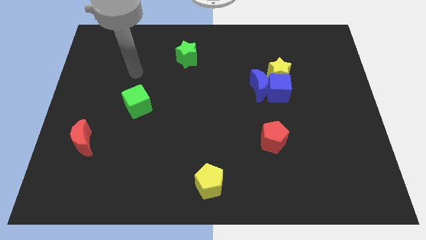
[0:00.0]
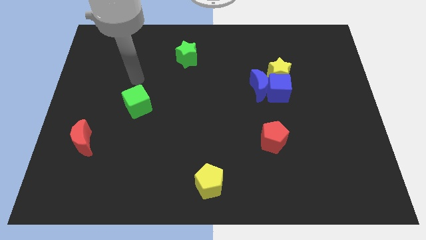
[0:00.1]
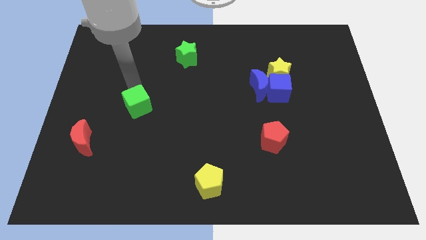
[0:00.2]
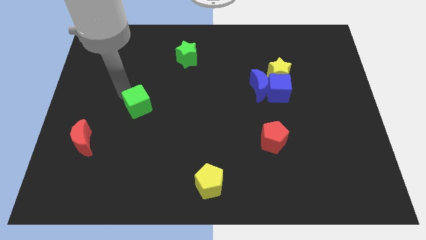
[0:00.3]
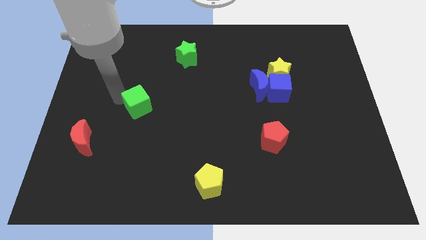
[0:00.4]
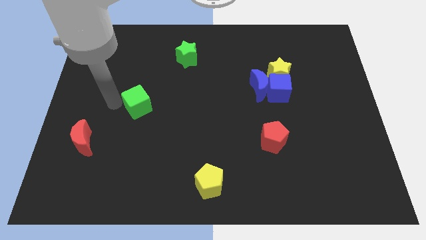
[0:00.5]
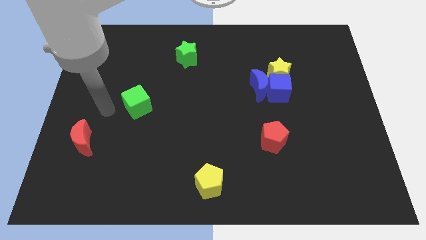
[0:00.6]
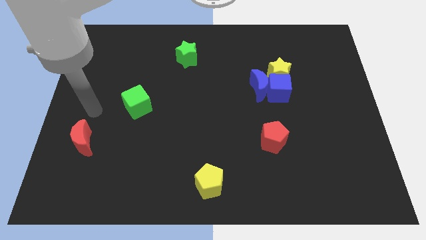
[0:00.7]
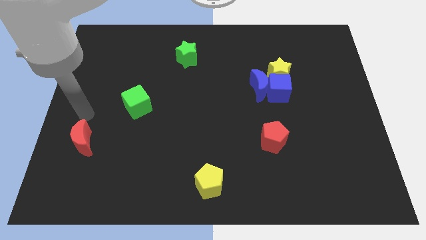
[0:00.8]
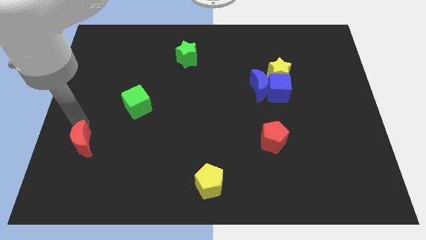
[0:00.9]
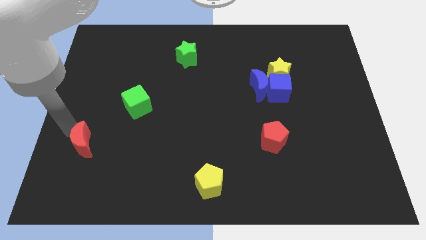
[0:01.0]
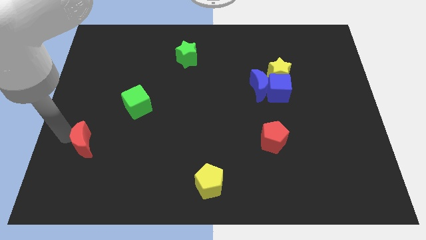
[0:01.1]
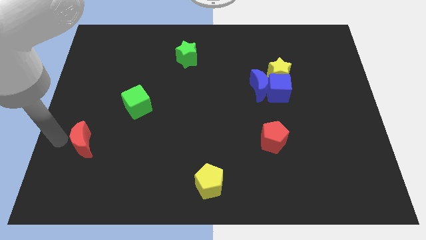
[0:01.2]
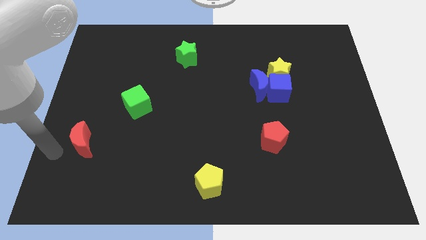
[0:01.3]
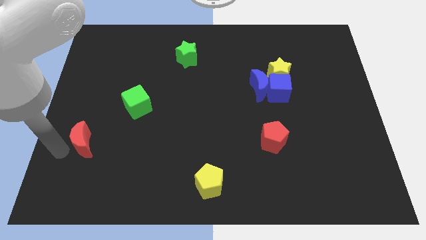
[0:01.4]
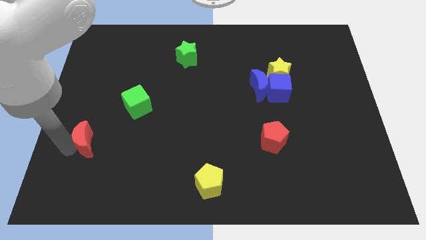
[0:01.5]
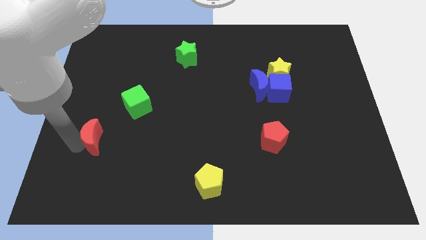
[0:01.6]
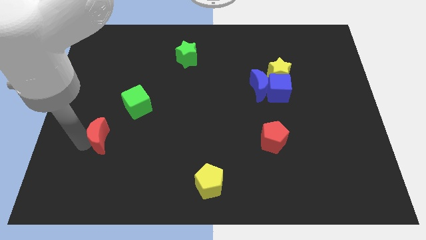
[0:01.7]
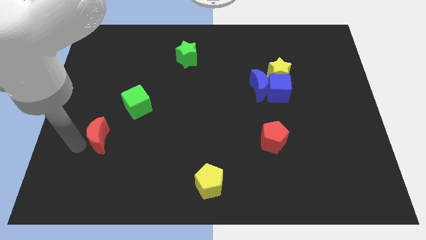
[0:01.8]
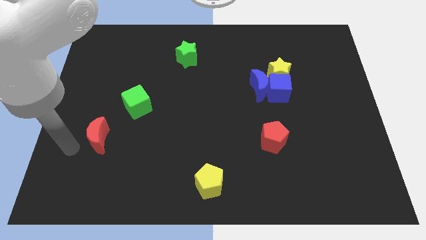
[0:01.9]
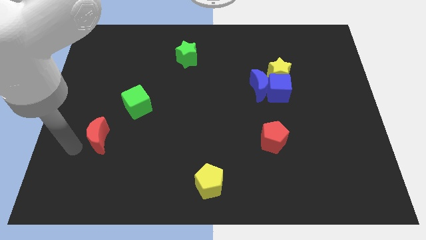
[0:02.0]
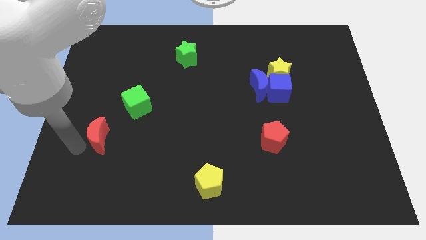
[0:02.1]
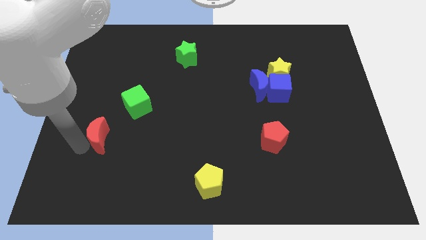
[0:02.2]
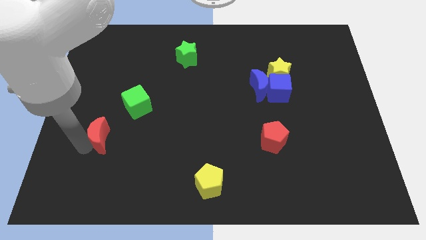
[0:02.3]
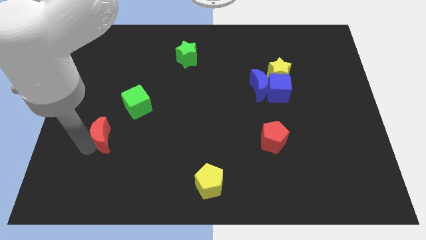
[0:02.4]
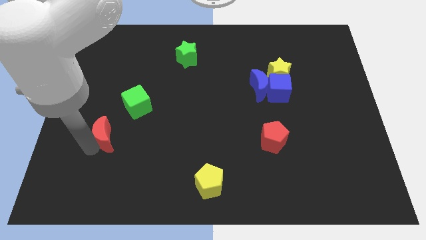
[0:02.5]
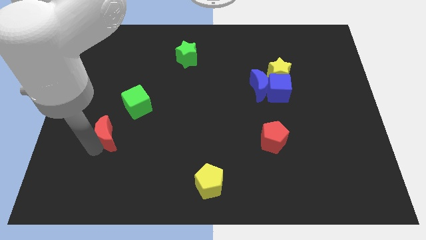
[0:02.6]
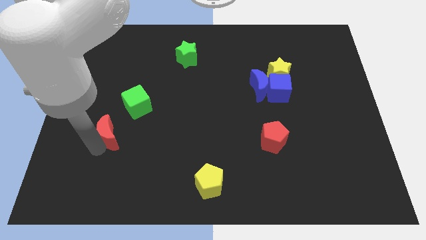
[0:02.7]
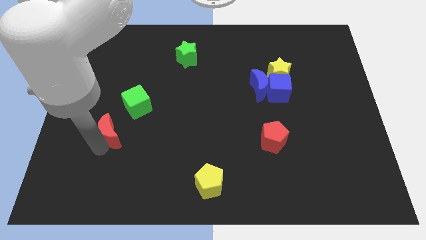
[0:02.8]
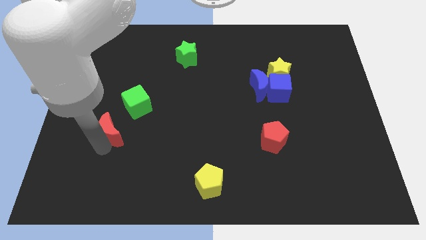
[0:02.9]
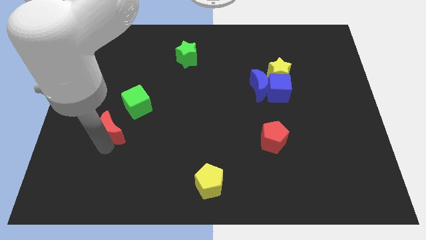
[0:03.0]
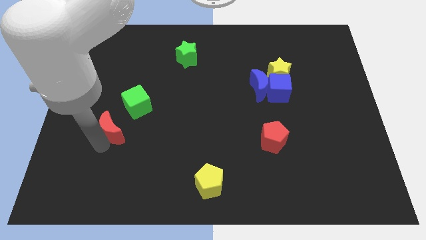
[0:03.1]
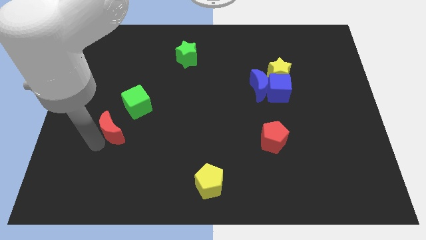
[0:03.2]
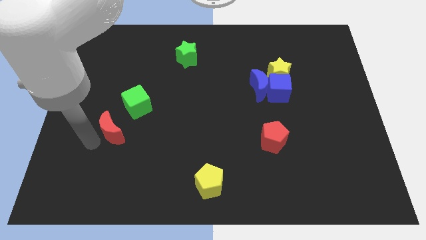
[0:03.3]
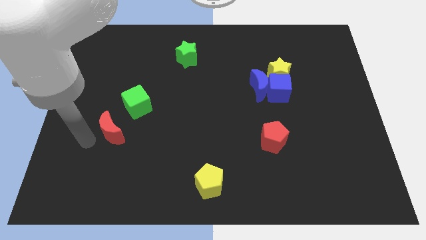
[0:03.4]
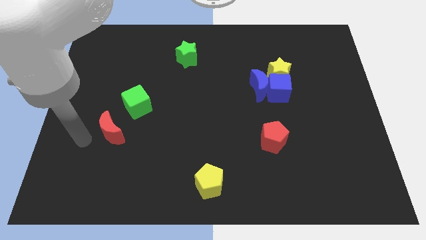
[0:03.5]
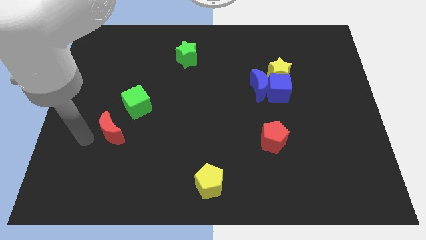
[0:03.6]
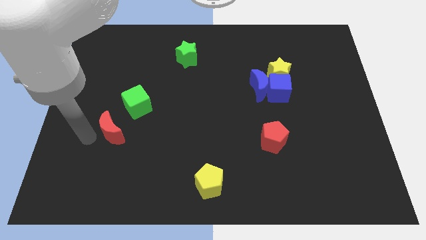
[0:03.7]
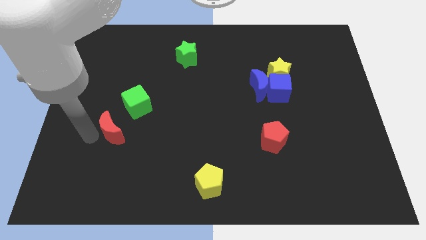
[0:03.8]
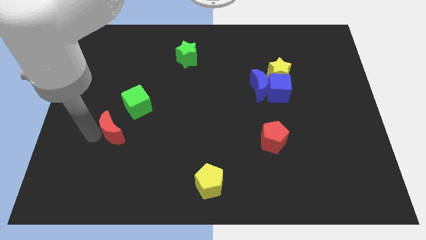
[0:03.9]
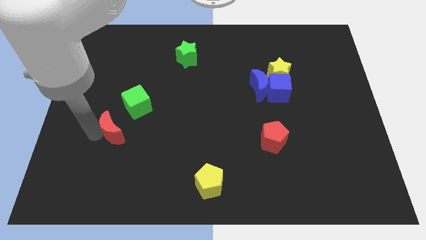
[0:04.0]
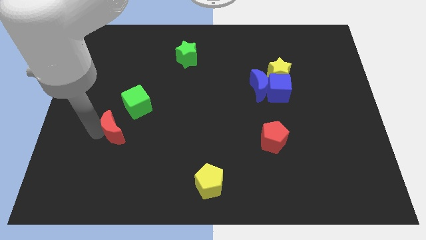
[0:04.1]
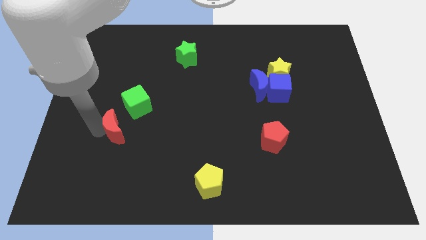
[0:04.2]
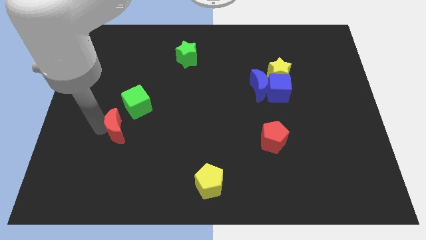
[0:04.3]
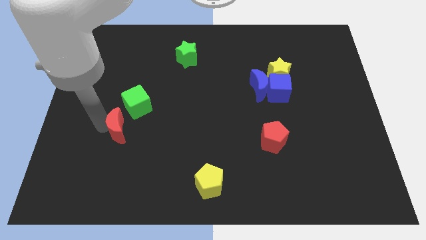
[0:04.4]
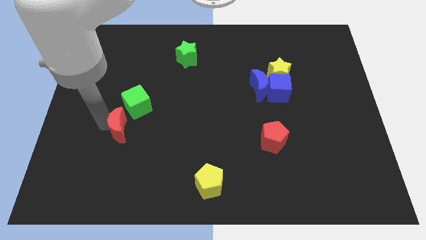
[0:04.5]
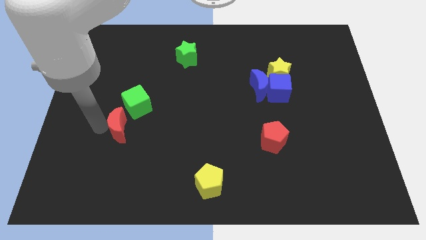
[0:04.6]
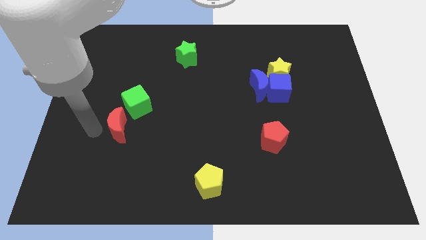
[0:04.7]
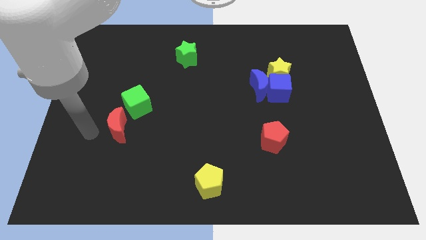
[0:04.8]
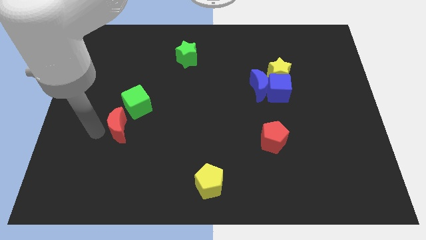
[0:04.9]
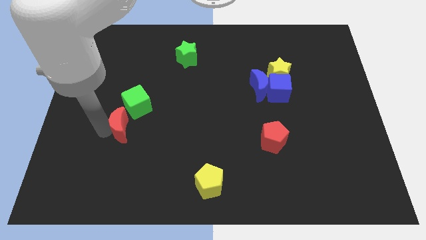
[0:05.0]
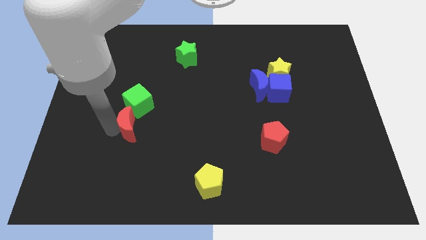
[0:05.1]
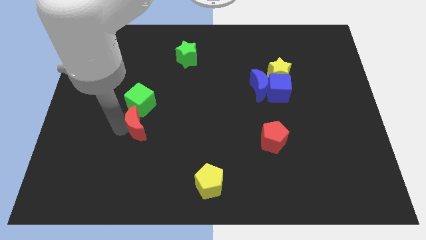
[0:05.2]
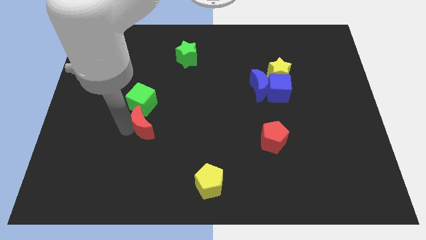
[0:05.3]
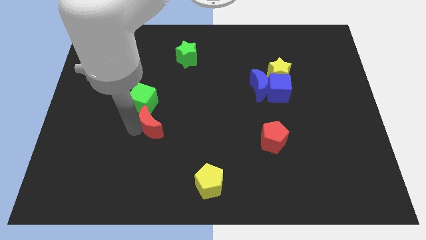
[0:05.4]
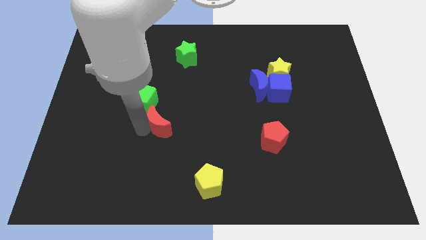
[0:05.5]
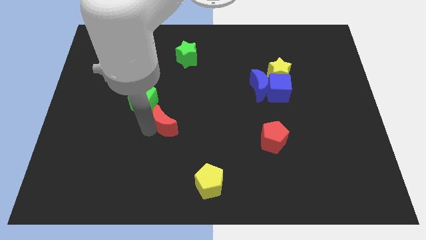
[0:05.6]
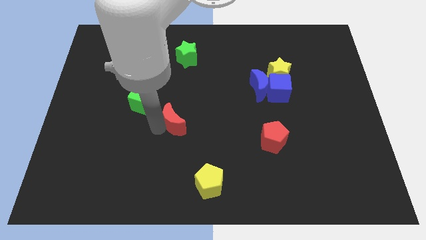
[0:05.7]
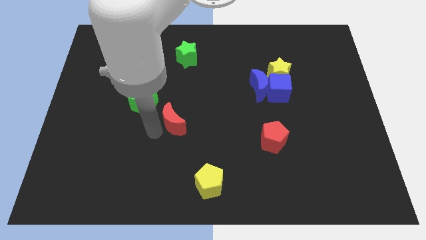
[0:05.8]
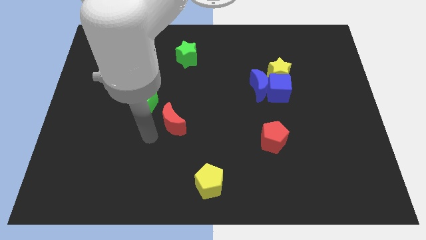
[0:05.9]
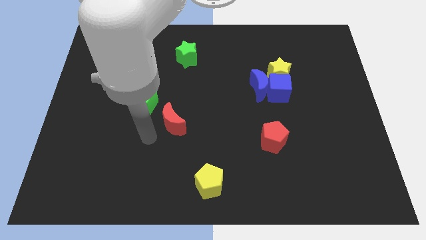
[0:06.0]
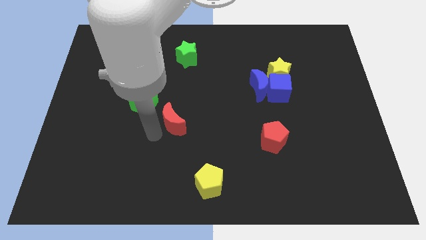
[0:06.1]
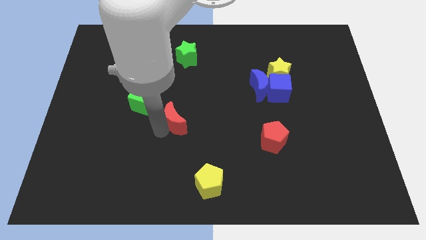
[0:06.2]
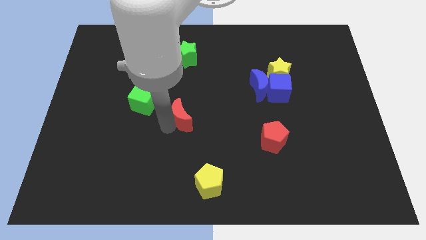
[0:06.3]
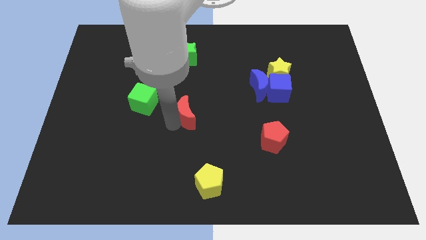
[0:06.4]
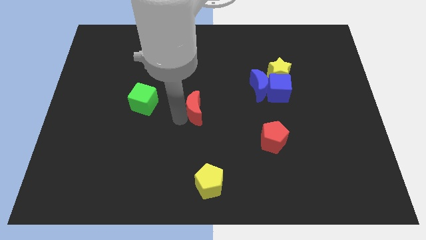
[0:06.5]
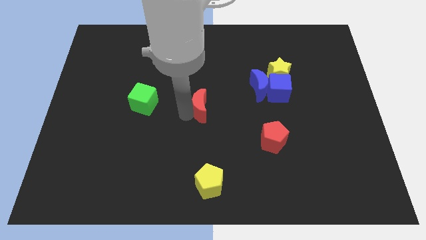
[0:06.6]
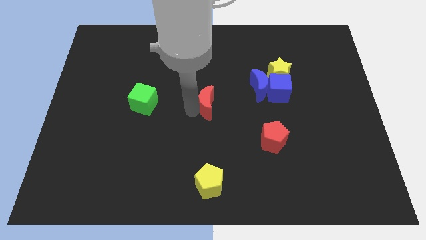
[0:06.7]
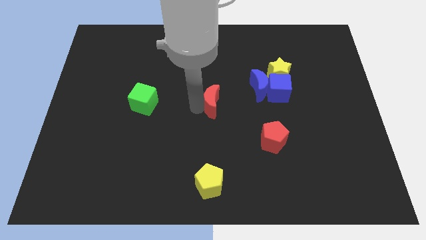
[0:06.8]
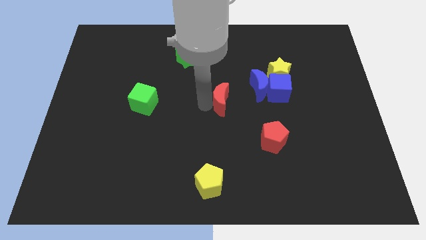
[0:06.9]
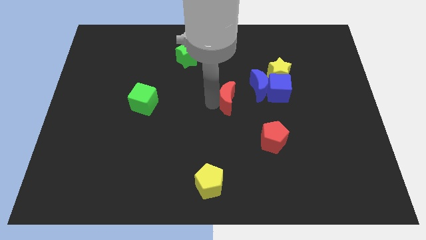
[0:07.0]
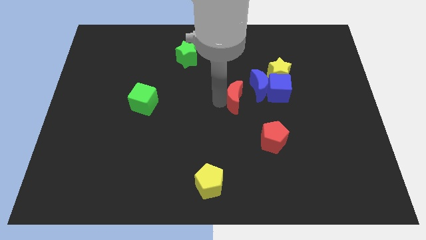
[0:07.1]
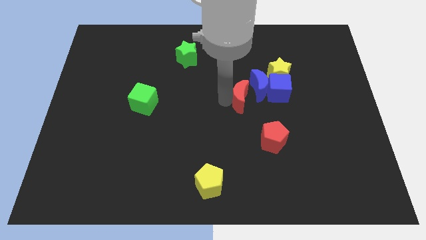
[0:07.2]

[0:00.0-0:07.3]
put the red moon close to the blue moon

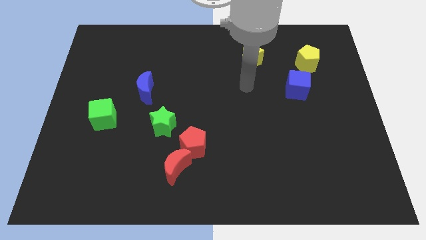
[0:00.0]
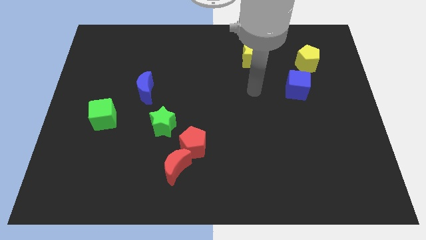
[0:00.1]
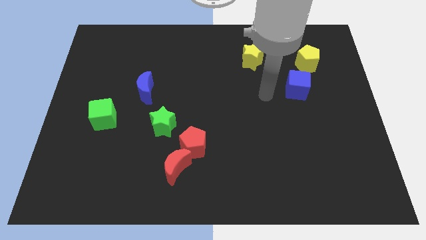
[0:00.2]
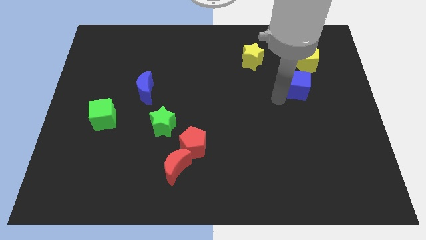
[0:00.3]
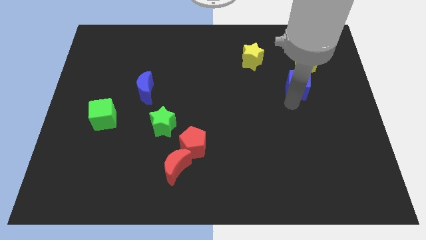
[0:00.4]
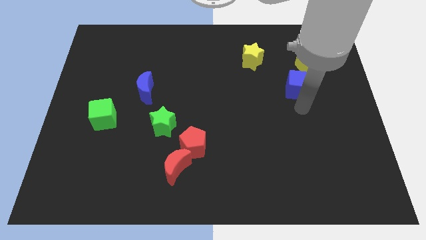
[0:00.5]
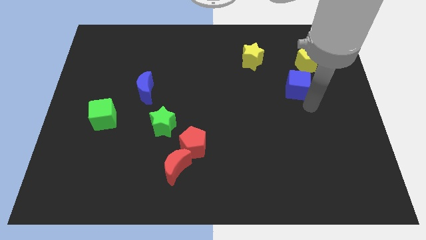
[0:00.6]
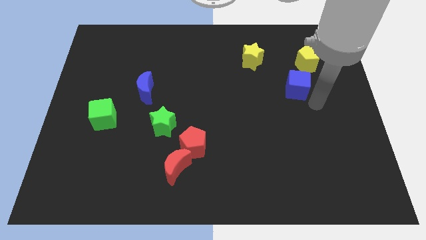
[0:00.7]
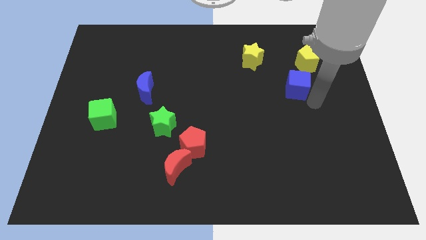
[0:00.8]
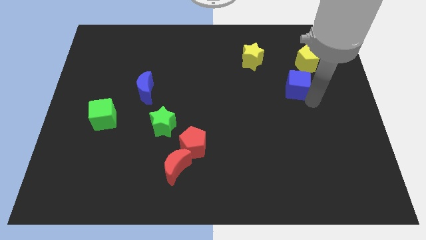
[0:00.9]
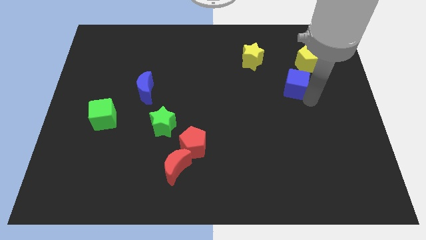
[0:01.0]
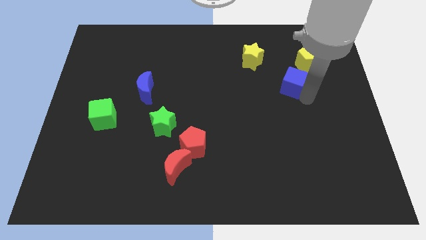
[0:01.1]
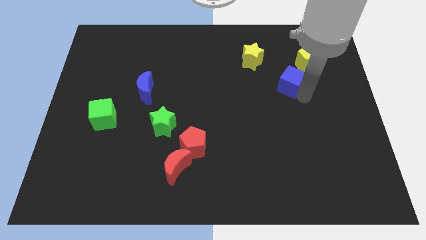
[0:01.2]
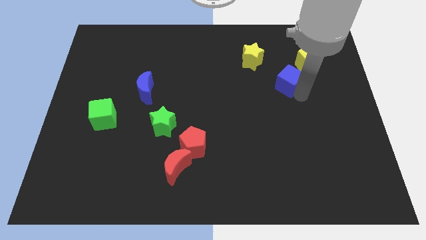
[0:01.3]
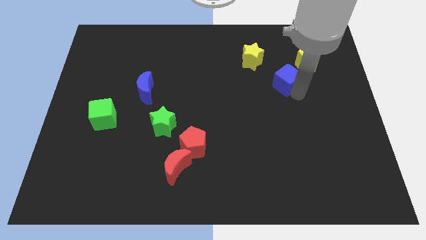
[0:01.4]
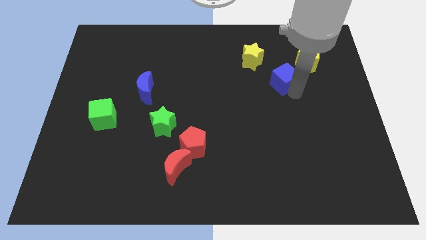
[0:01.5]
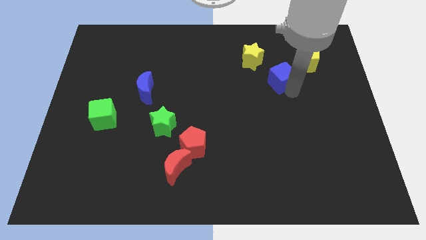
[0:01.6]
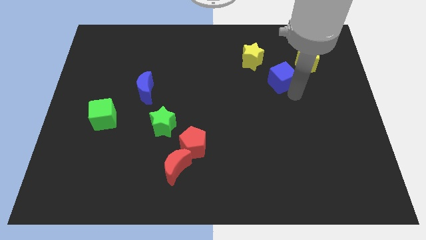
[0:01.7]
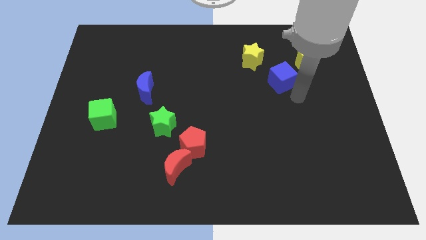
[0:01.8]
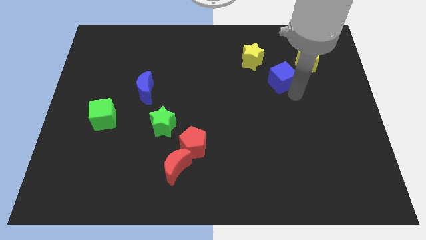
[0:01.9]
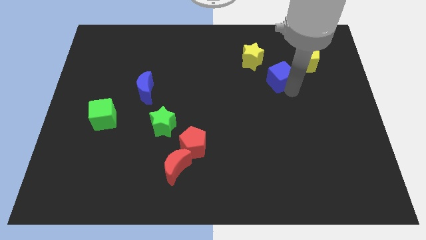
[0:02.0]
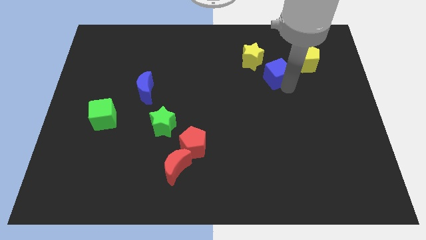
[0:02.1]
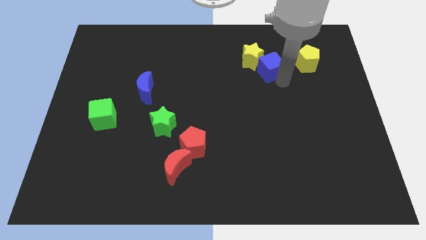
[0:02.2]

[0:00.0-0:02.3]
push the blue cube towards the yellow star
